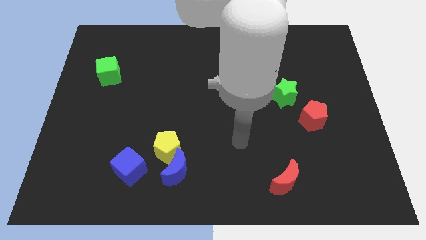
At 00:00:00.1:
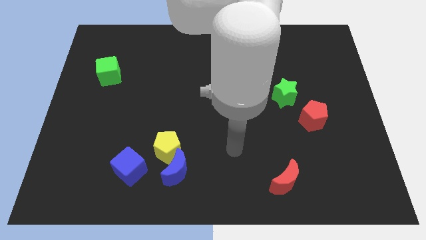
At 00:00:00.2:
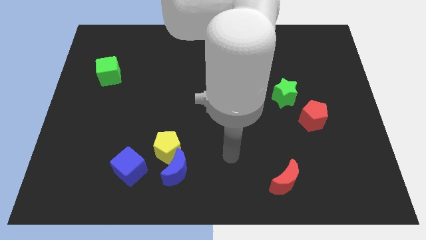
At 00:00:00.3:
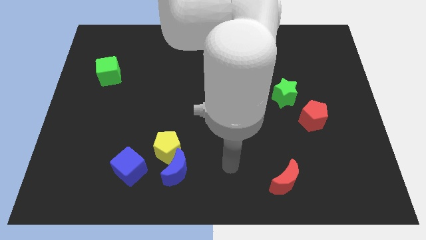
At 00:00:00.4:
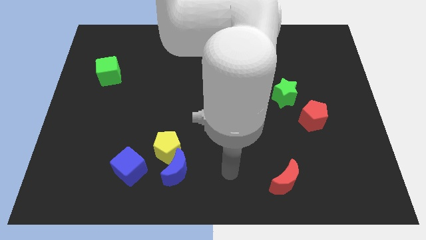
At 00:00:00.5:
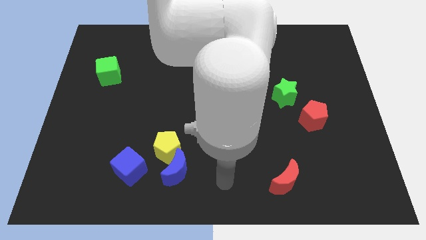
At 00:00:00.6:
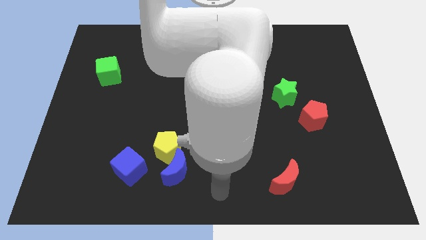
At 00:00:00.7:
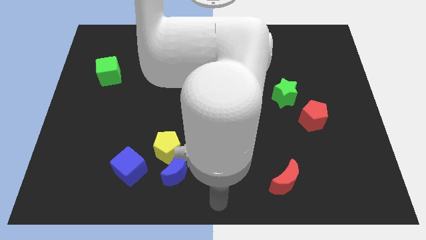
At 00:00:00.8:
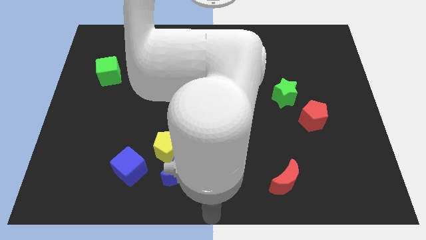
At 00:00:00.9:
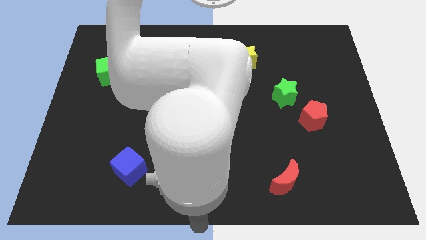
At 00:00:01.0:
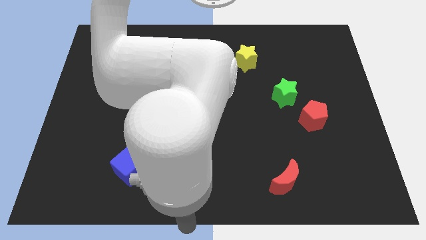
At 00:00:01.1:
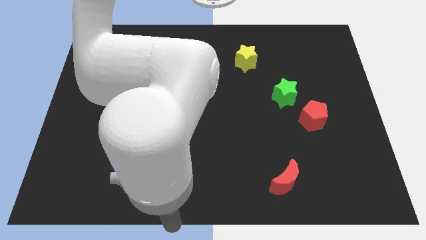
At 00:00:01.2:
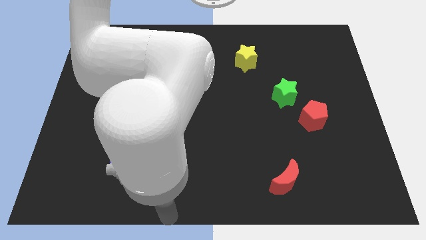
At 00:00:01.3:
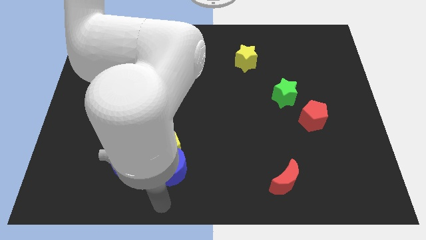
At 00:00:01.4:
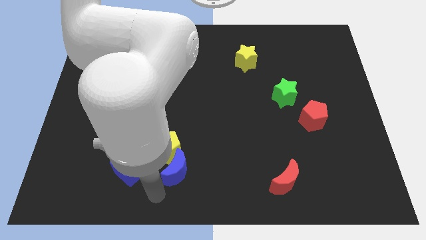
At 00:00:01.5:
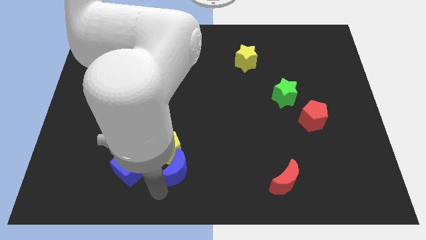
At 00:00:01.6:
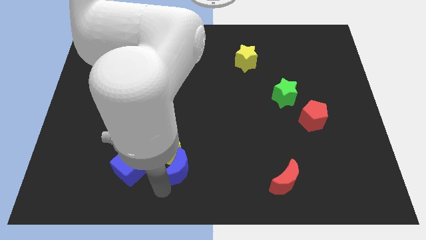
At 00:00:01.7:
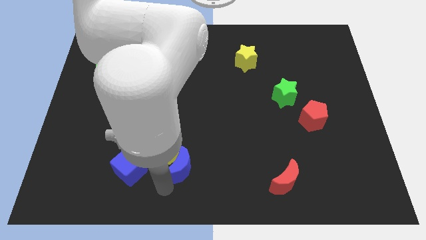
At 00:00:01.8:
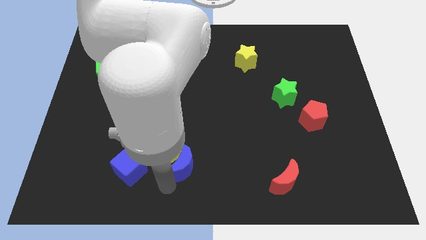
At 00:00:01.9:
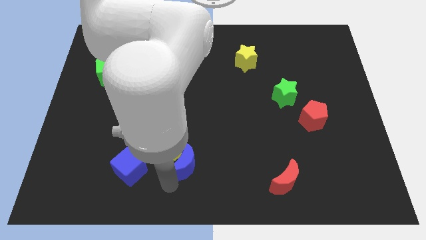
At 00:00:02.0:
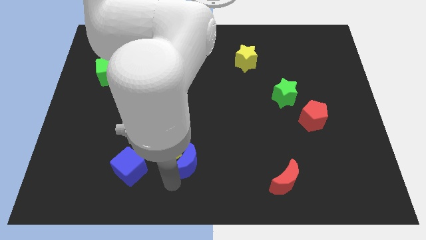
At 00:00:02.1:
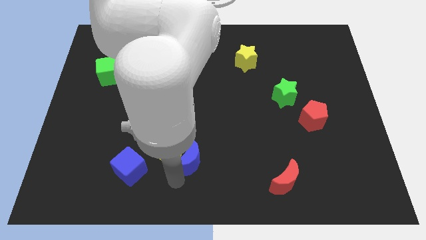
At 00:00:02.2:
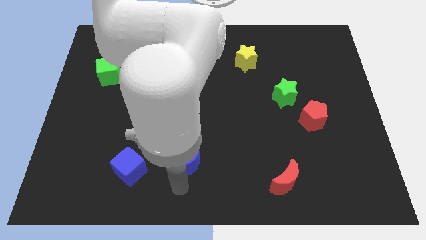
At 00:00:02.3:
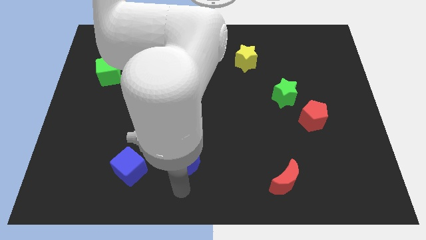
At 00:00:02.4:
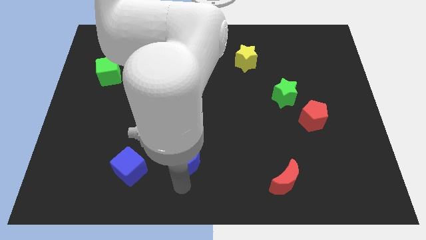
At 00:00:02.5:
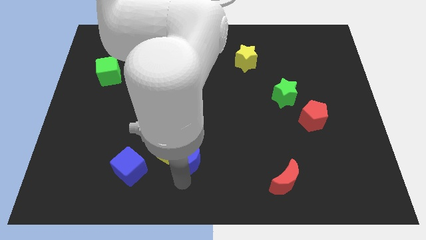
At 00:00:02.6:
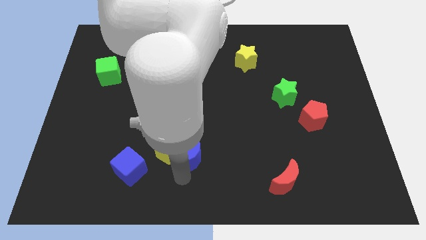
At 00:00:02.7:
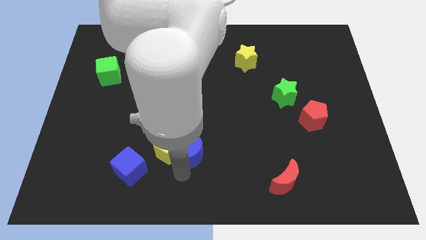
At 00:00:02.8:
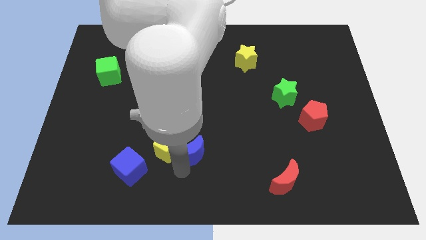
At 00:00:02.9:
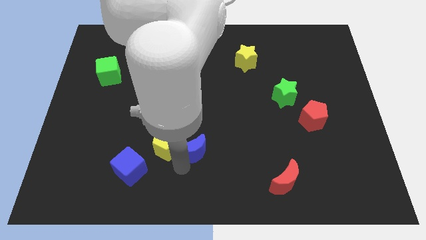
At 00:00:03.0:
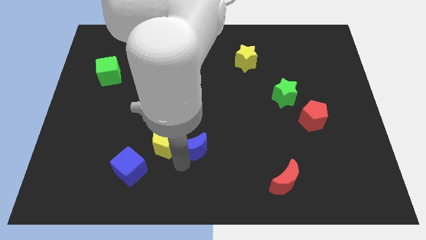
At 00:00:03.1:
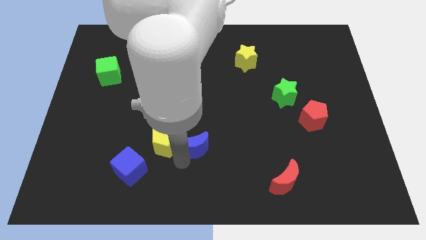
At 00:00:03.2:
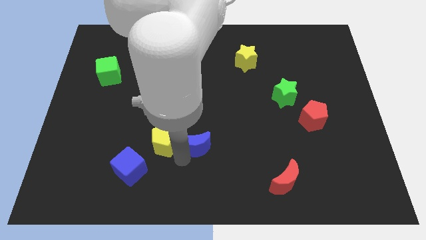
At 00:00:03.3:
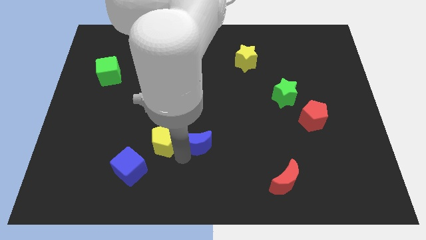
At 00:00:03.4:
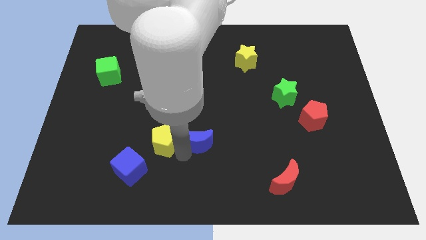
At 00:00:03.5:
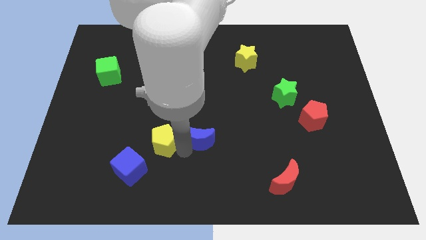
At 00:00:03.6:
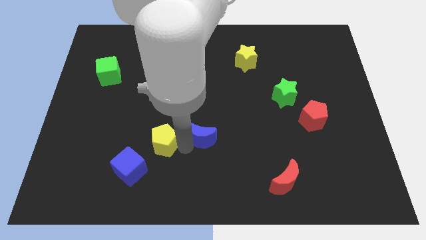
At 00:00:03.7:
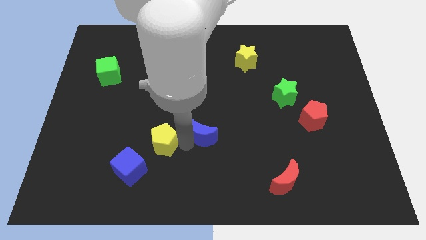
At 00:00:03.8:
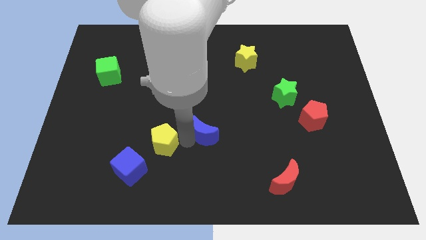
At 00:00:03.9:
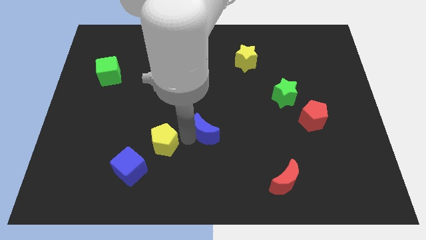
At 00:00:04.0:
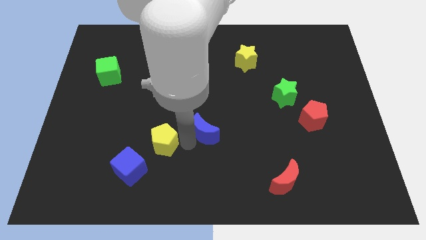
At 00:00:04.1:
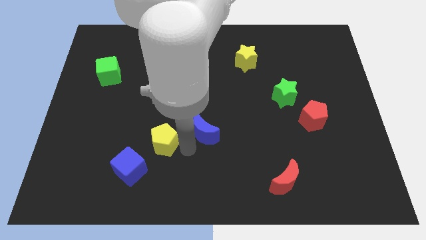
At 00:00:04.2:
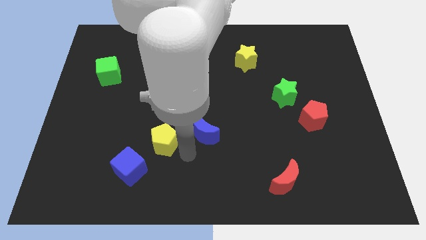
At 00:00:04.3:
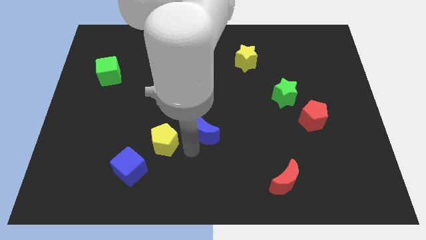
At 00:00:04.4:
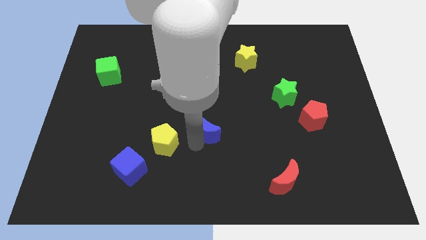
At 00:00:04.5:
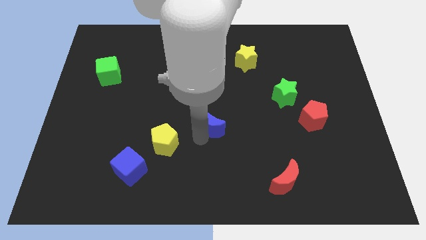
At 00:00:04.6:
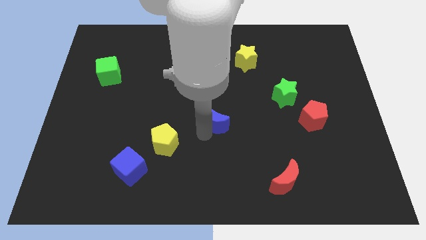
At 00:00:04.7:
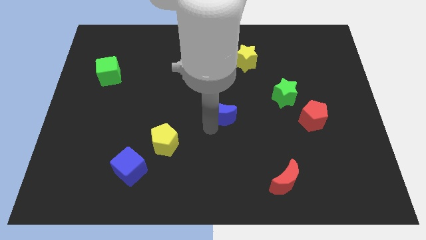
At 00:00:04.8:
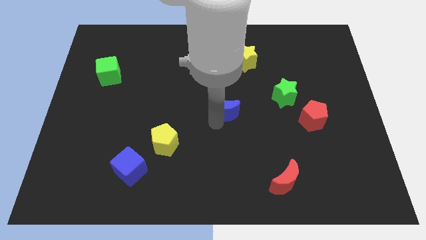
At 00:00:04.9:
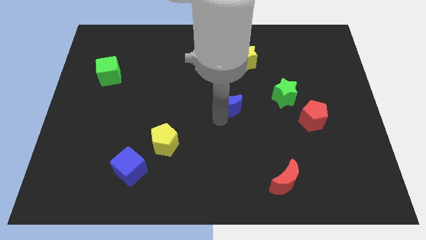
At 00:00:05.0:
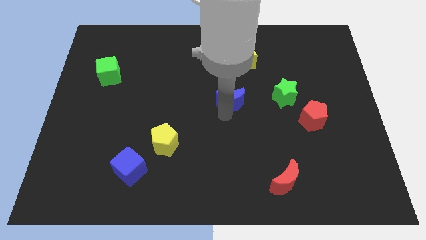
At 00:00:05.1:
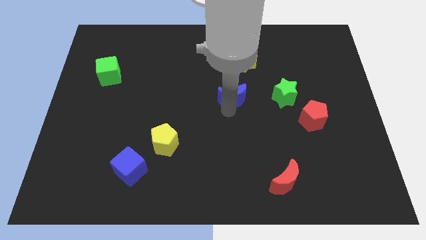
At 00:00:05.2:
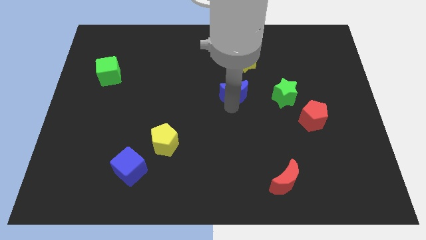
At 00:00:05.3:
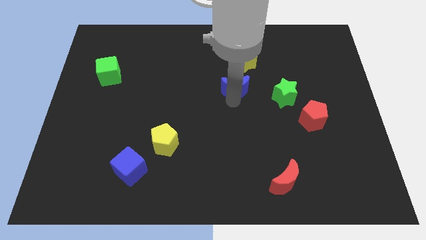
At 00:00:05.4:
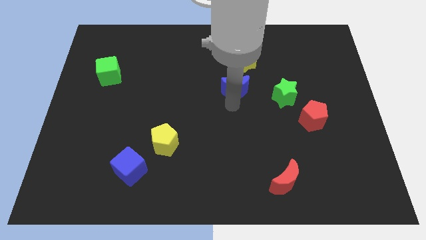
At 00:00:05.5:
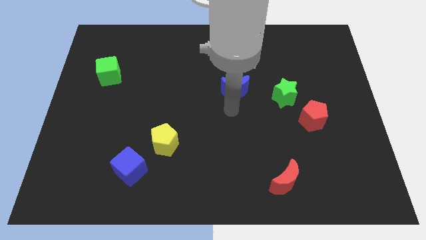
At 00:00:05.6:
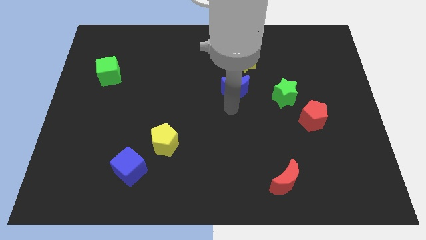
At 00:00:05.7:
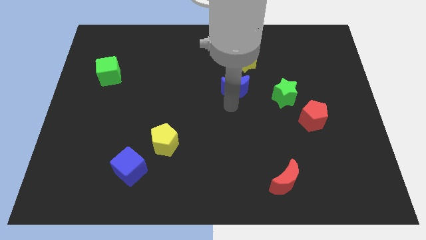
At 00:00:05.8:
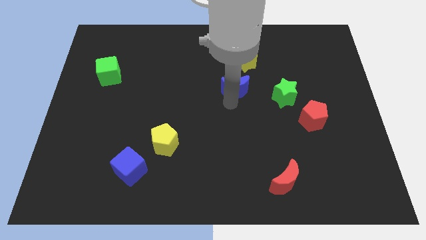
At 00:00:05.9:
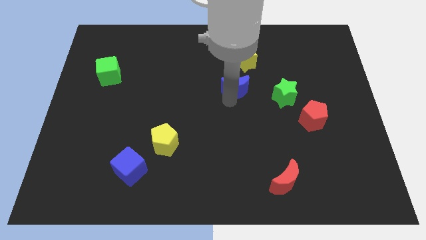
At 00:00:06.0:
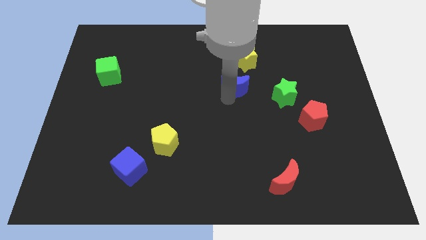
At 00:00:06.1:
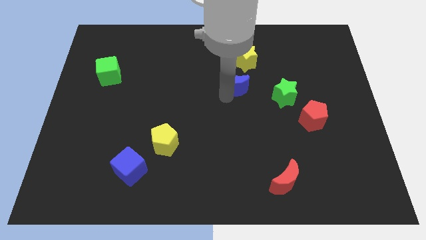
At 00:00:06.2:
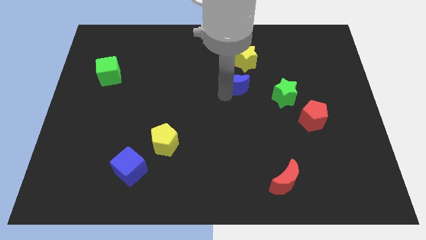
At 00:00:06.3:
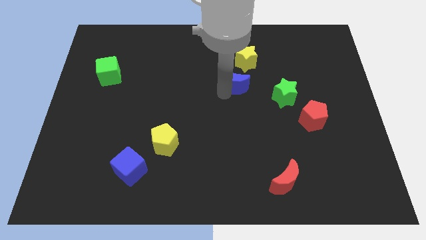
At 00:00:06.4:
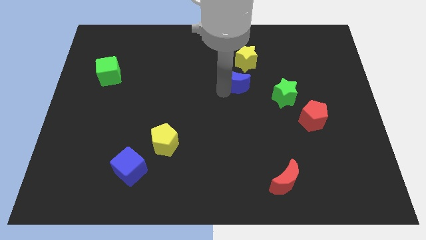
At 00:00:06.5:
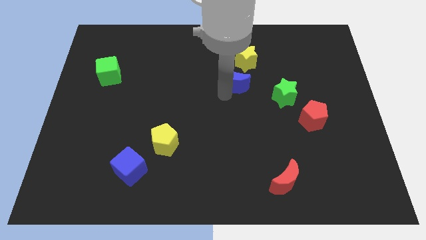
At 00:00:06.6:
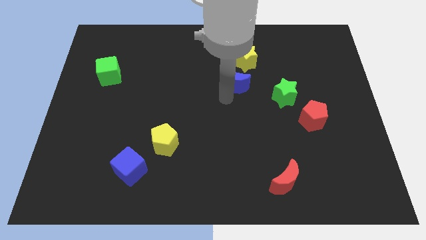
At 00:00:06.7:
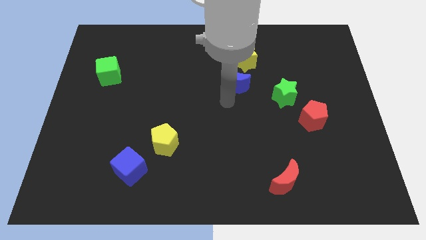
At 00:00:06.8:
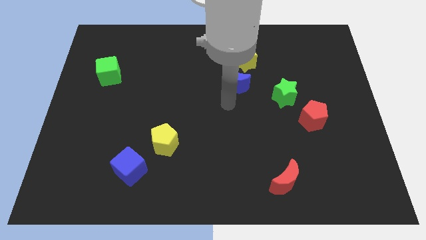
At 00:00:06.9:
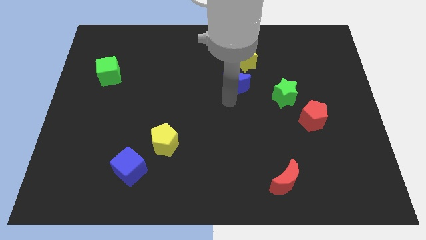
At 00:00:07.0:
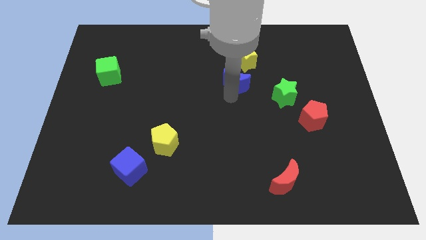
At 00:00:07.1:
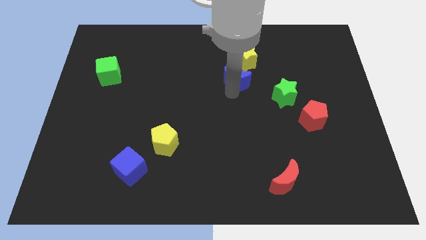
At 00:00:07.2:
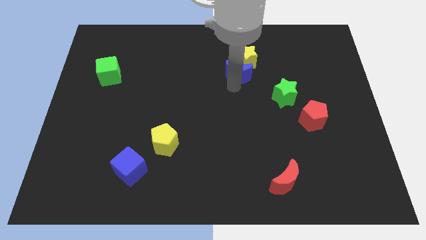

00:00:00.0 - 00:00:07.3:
move the blue moon close to the yellow star

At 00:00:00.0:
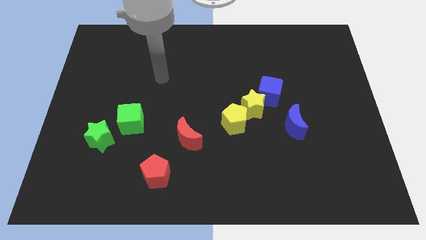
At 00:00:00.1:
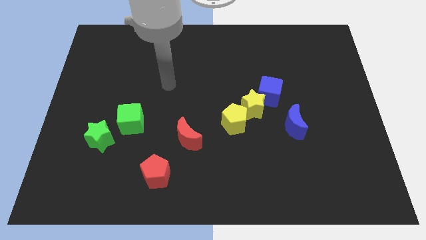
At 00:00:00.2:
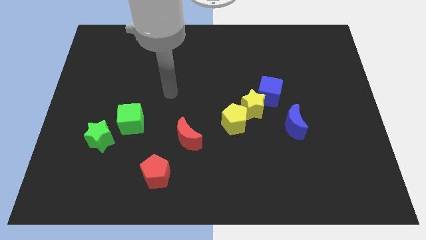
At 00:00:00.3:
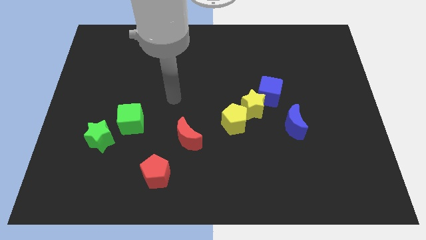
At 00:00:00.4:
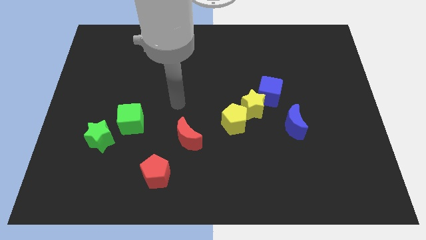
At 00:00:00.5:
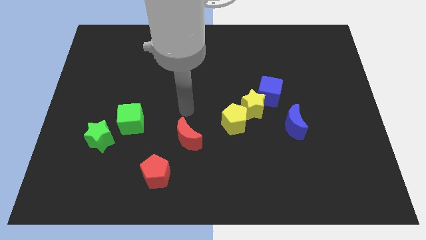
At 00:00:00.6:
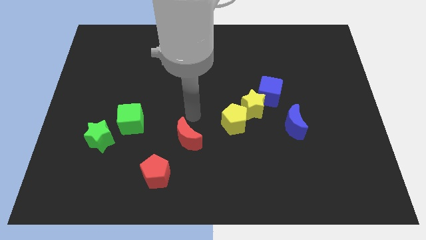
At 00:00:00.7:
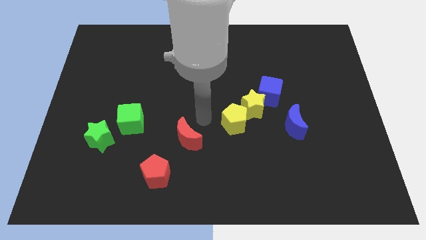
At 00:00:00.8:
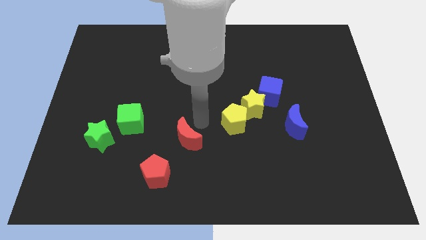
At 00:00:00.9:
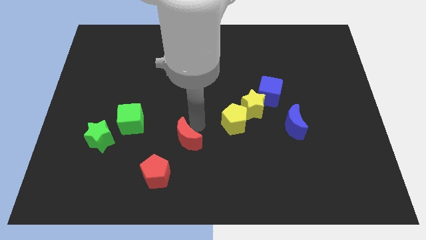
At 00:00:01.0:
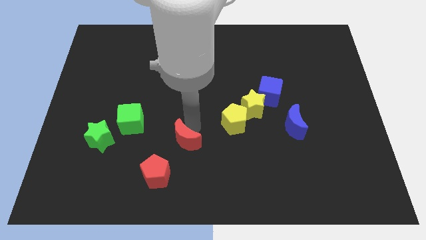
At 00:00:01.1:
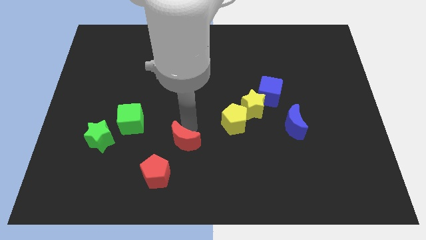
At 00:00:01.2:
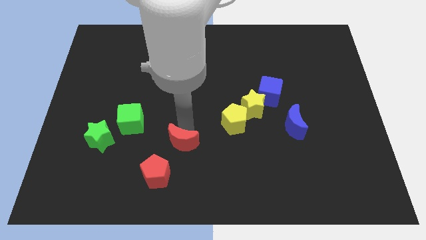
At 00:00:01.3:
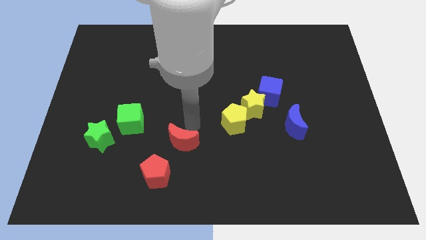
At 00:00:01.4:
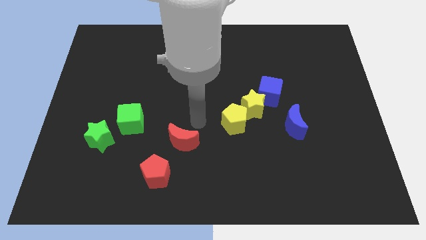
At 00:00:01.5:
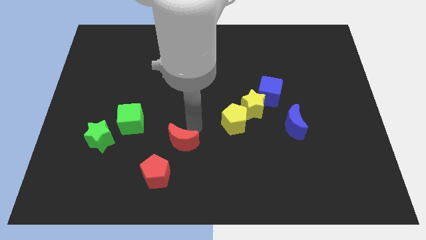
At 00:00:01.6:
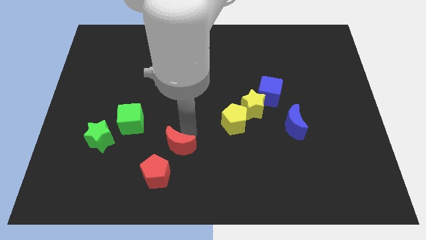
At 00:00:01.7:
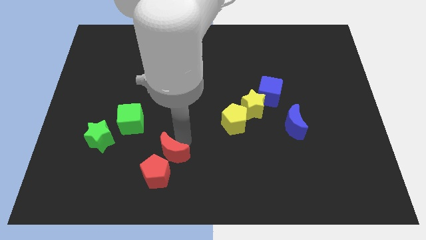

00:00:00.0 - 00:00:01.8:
put the red moon to the red pentagon
